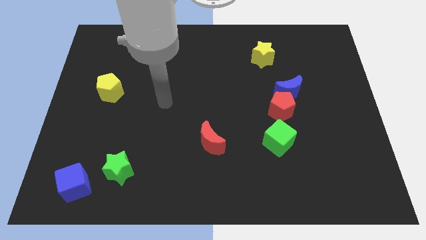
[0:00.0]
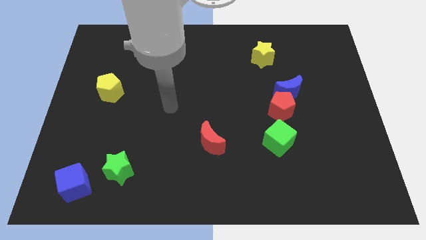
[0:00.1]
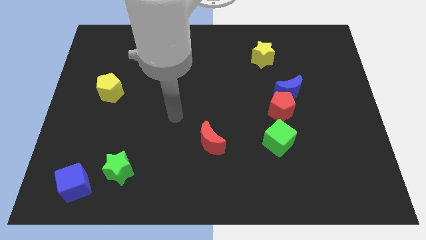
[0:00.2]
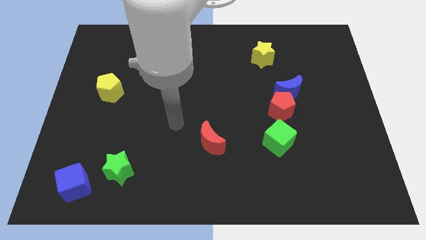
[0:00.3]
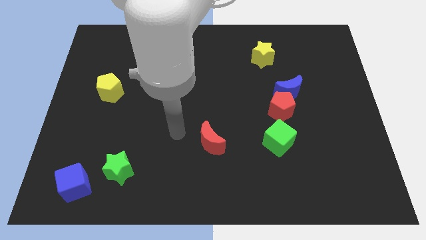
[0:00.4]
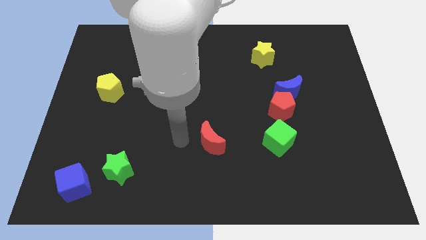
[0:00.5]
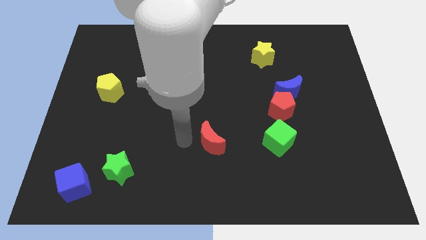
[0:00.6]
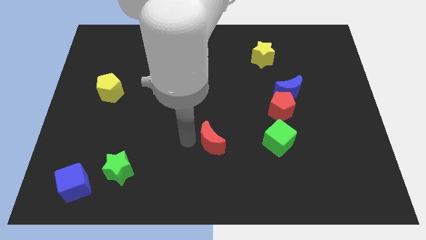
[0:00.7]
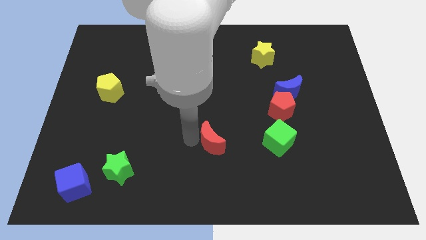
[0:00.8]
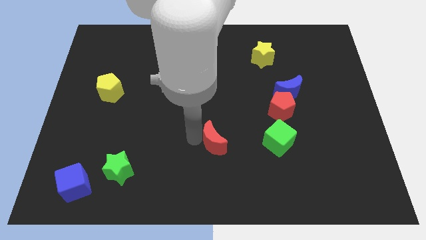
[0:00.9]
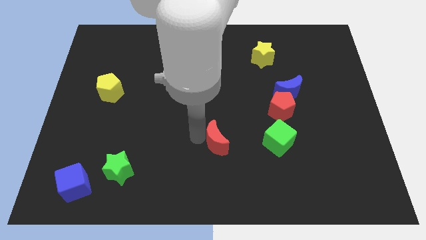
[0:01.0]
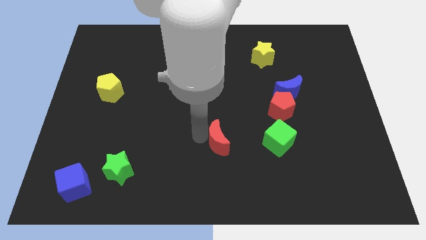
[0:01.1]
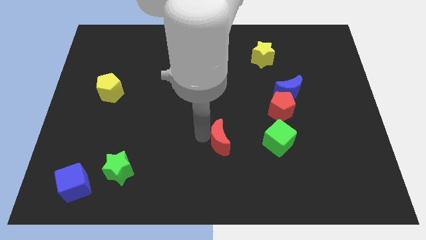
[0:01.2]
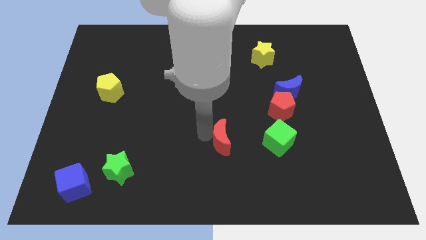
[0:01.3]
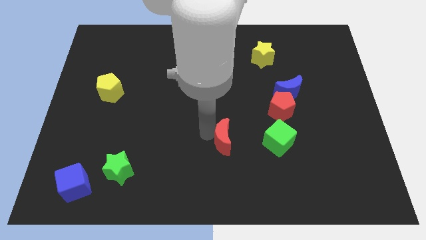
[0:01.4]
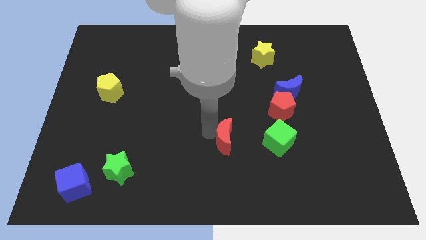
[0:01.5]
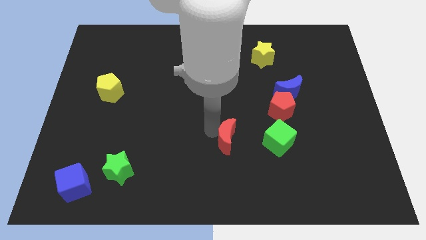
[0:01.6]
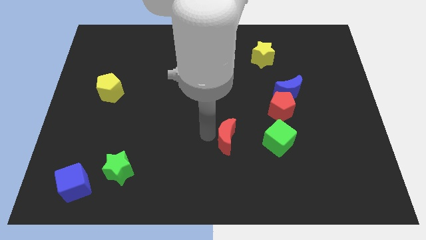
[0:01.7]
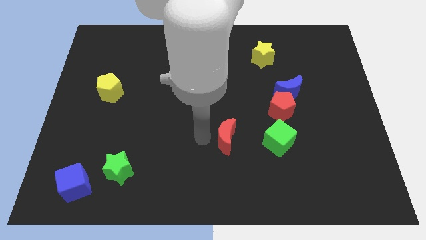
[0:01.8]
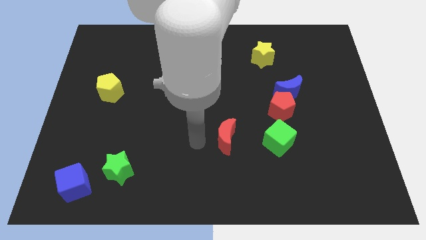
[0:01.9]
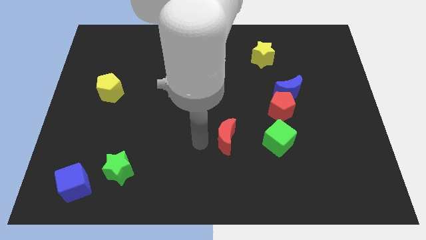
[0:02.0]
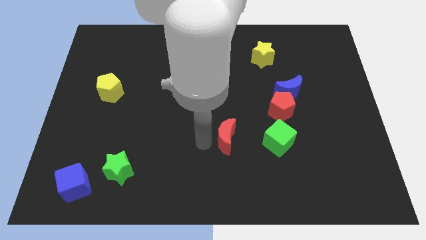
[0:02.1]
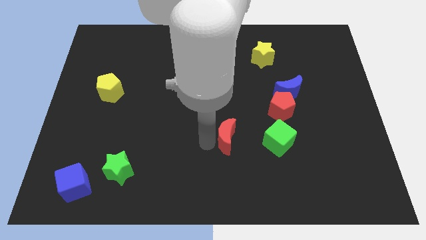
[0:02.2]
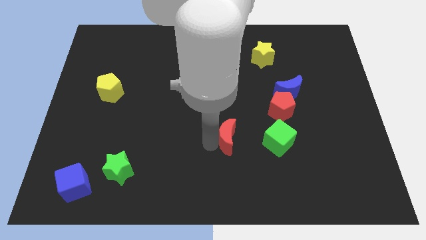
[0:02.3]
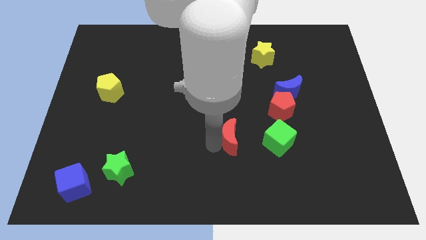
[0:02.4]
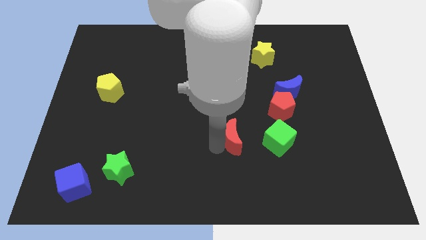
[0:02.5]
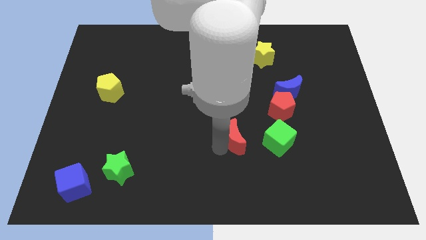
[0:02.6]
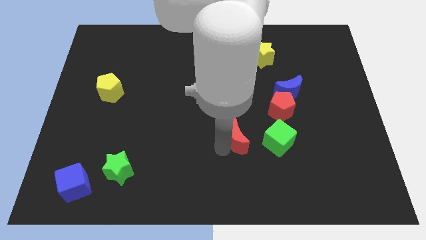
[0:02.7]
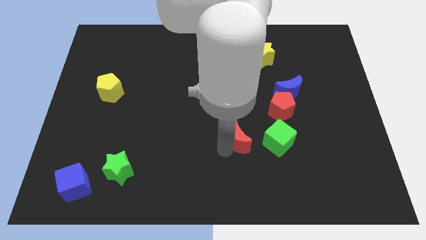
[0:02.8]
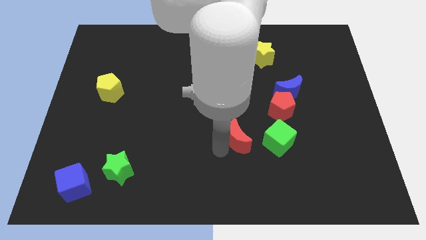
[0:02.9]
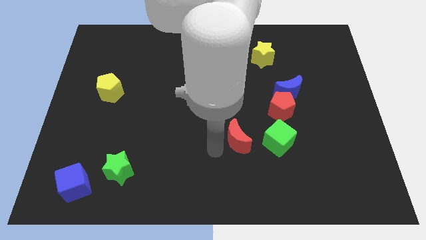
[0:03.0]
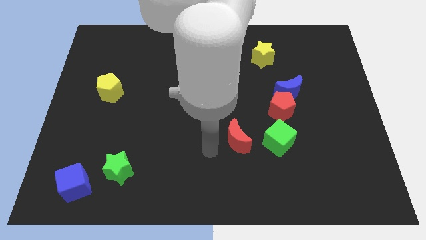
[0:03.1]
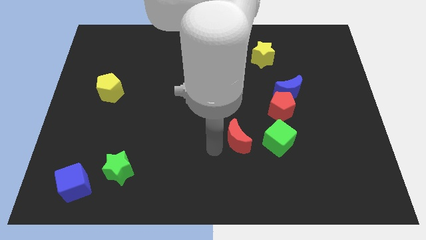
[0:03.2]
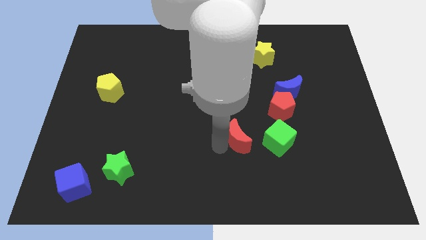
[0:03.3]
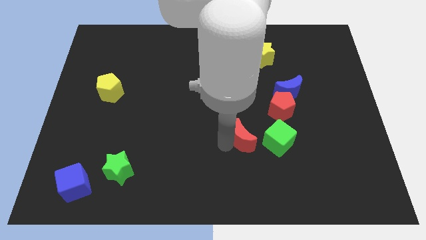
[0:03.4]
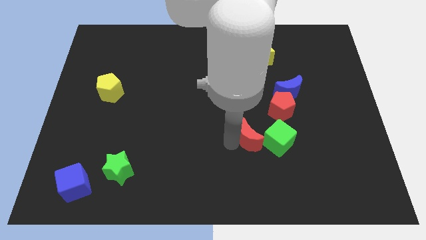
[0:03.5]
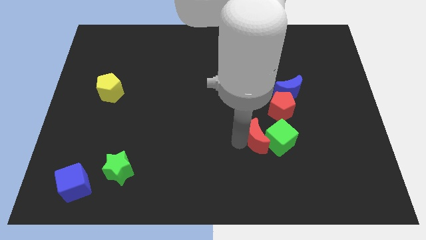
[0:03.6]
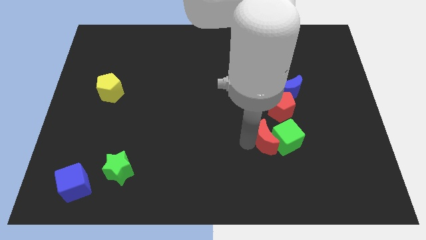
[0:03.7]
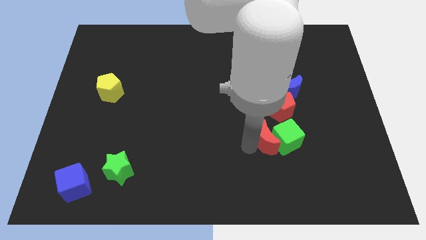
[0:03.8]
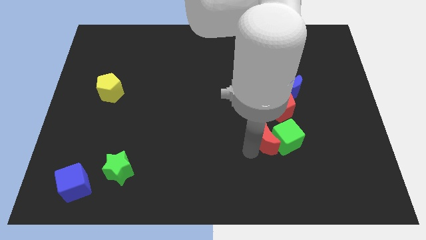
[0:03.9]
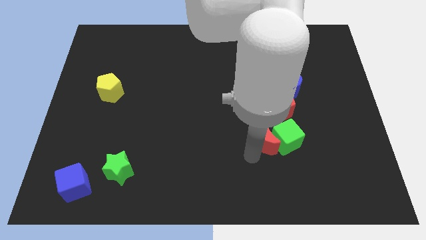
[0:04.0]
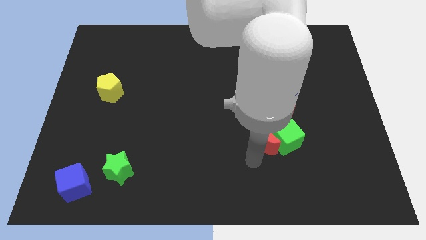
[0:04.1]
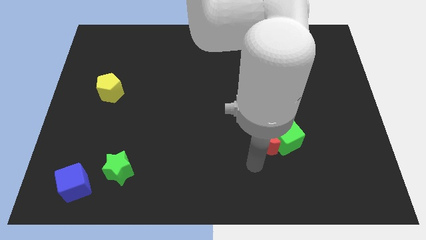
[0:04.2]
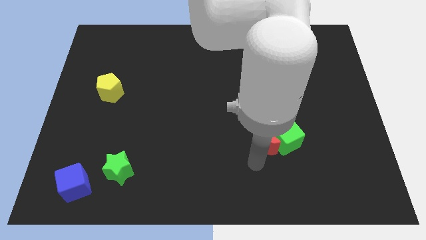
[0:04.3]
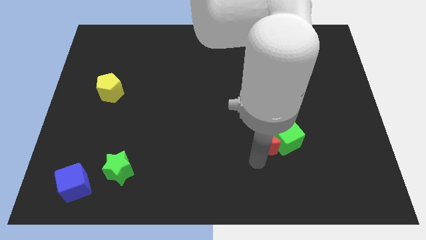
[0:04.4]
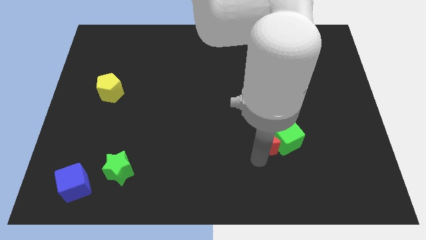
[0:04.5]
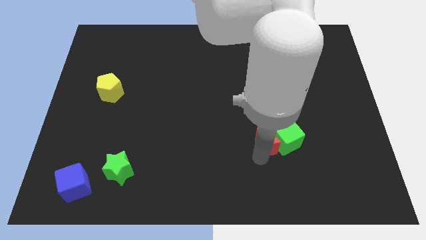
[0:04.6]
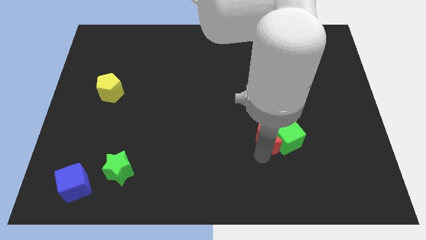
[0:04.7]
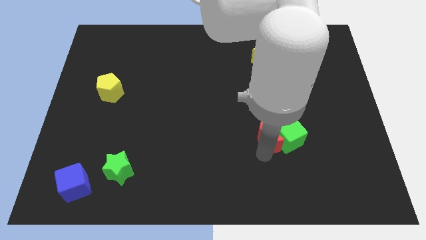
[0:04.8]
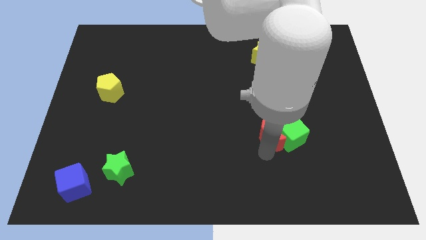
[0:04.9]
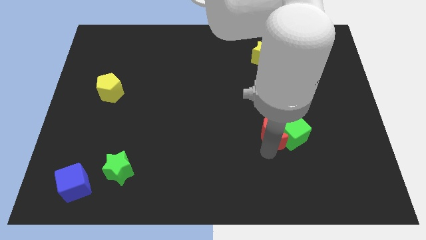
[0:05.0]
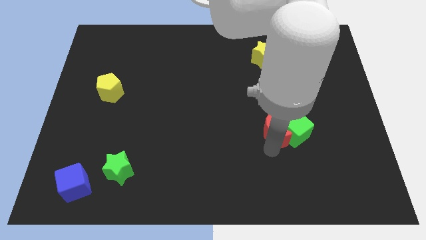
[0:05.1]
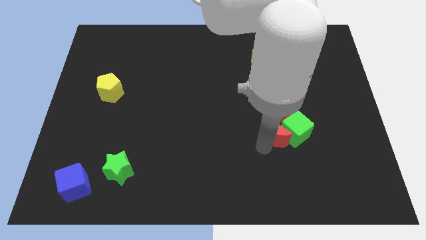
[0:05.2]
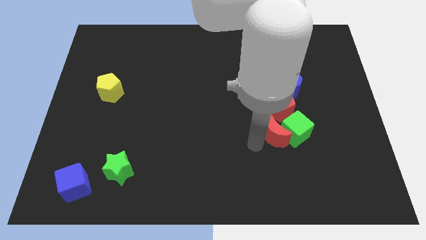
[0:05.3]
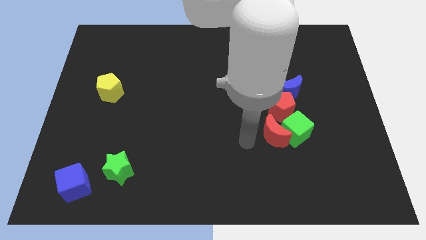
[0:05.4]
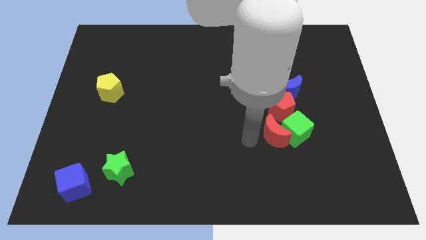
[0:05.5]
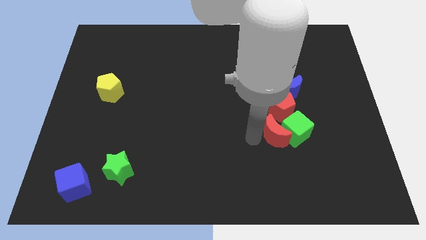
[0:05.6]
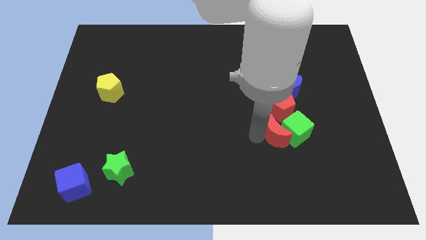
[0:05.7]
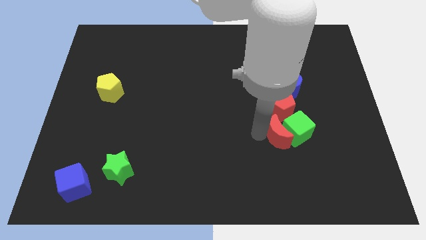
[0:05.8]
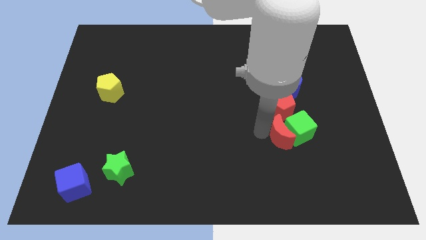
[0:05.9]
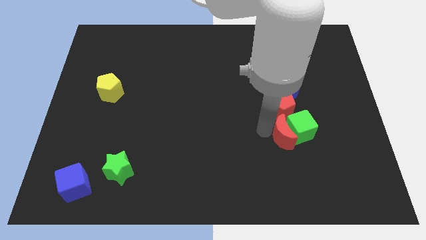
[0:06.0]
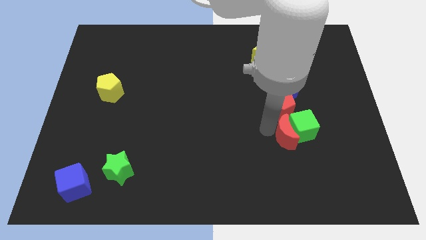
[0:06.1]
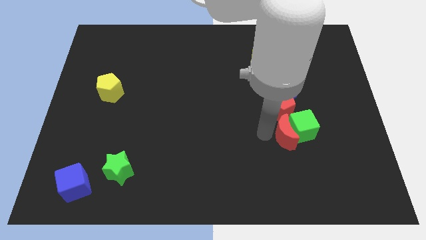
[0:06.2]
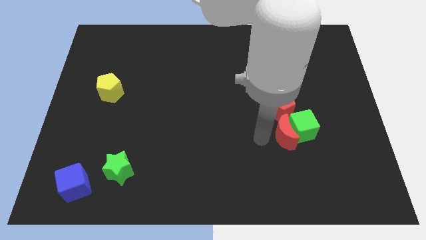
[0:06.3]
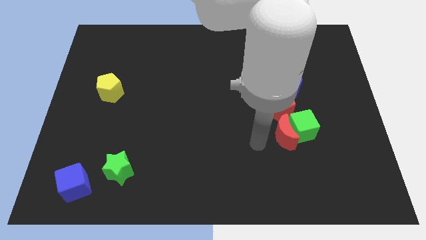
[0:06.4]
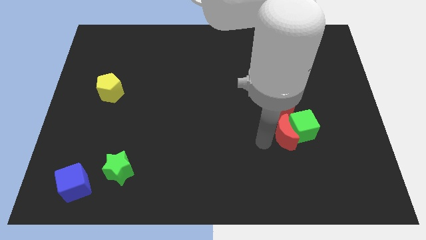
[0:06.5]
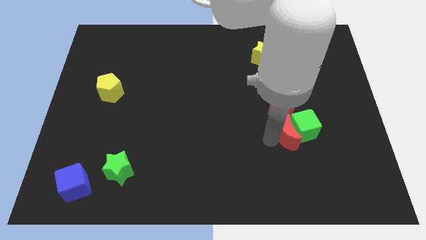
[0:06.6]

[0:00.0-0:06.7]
put the red moon to the bottom right of the red pentagon
